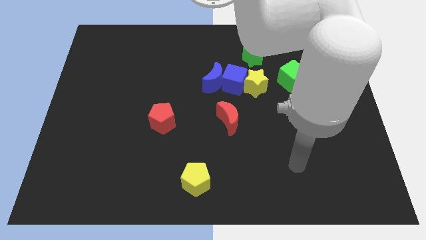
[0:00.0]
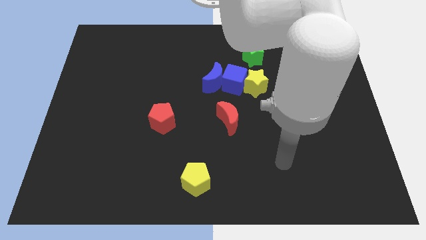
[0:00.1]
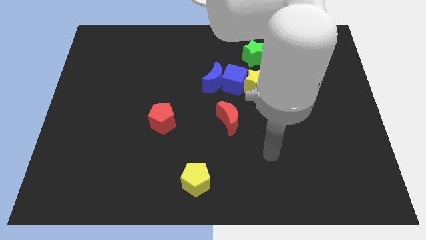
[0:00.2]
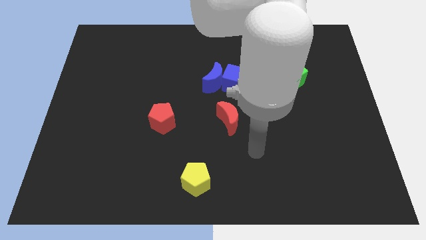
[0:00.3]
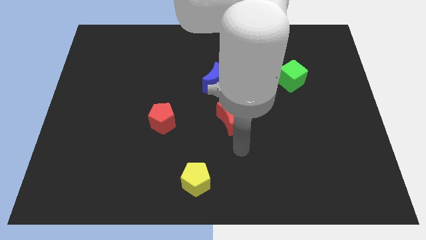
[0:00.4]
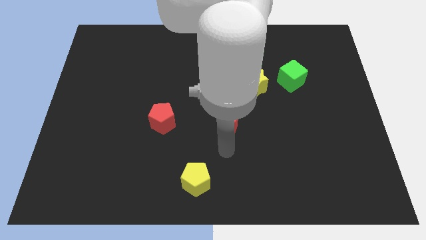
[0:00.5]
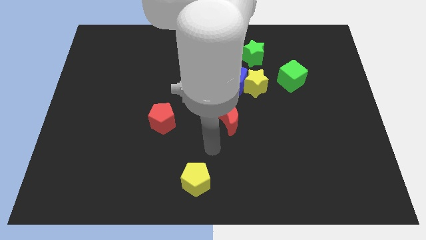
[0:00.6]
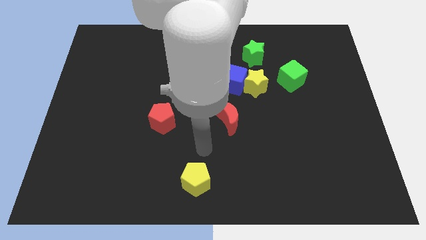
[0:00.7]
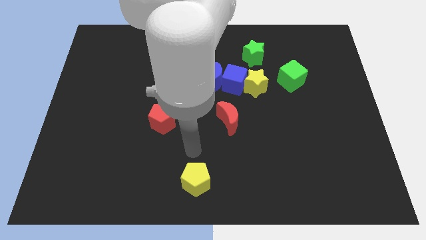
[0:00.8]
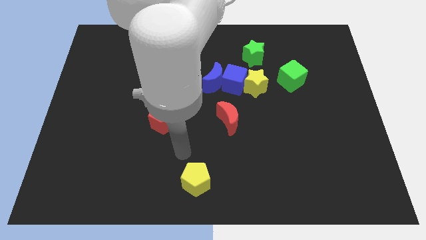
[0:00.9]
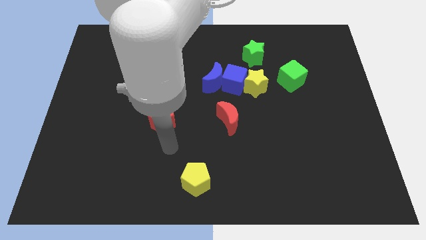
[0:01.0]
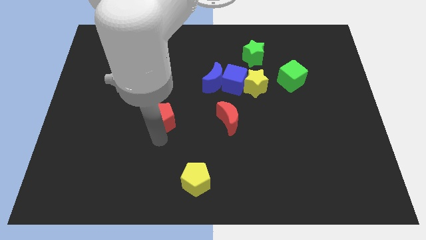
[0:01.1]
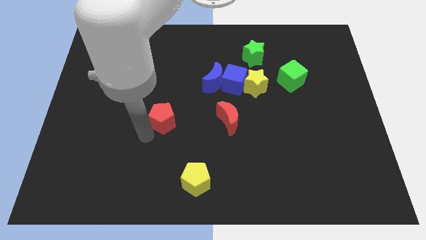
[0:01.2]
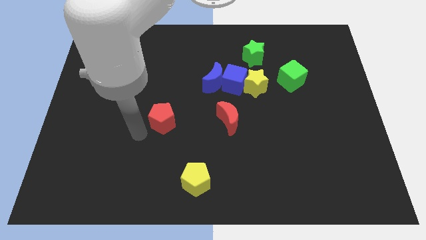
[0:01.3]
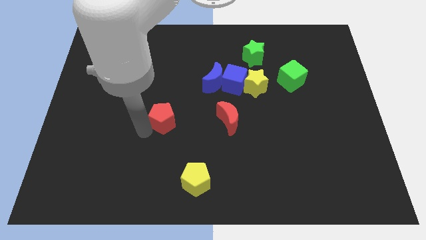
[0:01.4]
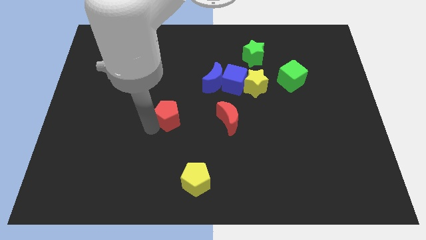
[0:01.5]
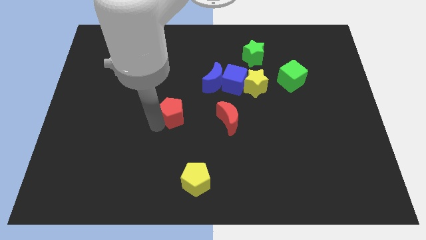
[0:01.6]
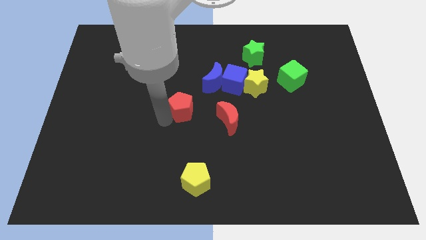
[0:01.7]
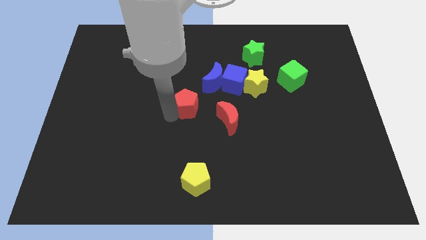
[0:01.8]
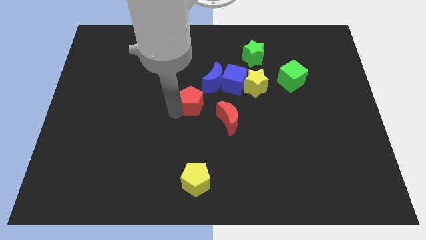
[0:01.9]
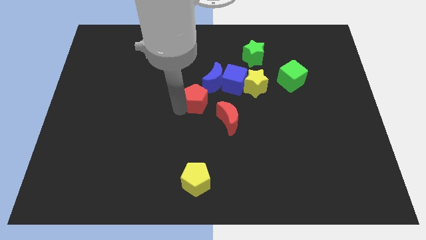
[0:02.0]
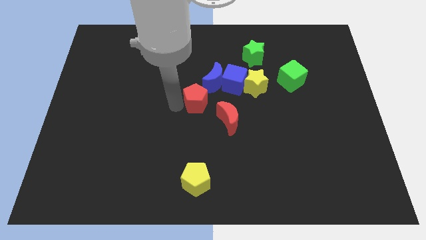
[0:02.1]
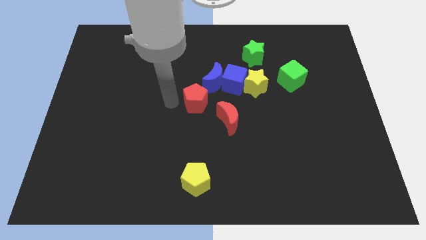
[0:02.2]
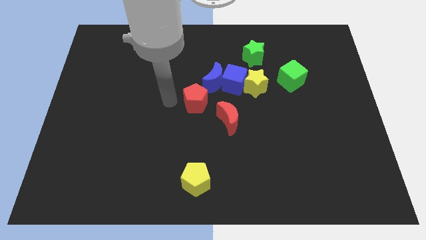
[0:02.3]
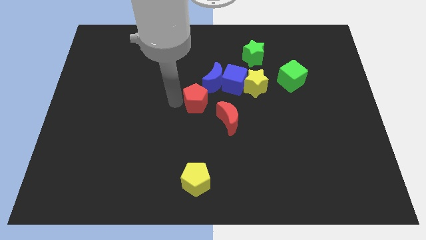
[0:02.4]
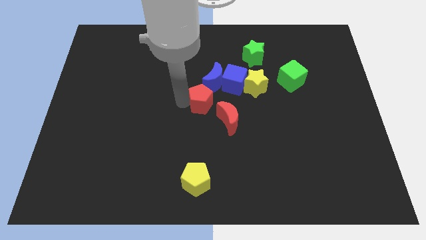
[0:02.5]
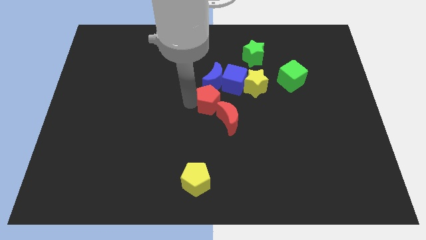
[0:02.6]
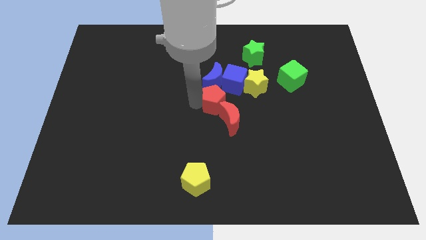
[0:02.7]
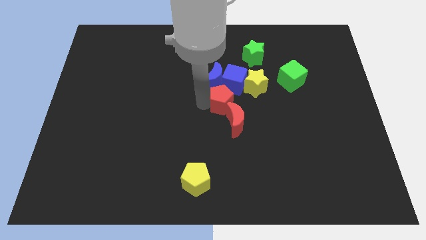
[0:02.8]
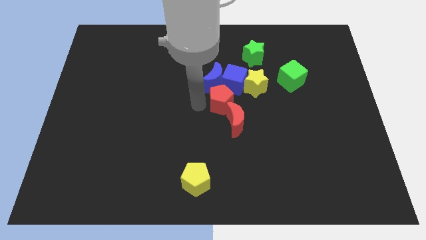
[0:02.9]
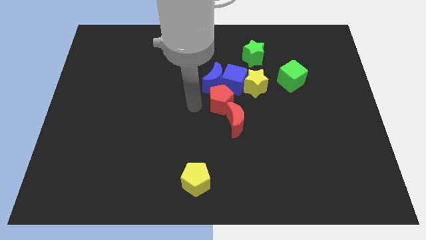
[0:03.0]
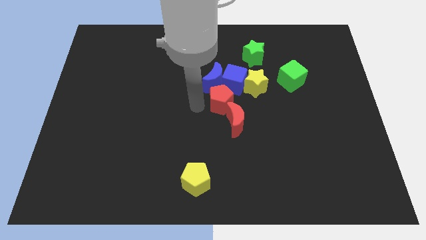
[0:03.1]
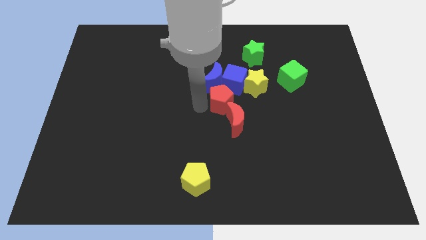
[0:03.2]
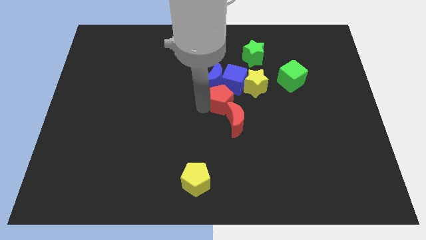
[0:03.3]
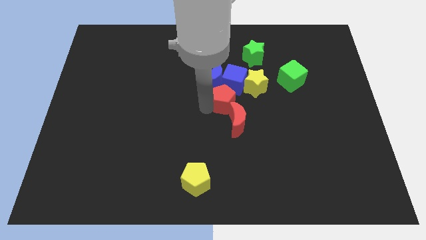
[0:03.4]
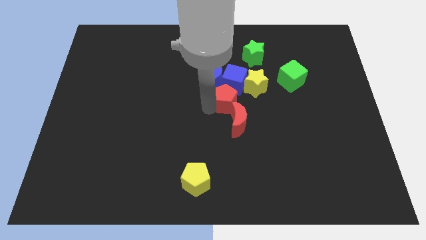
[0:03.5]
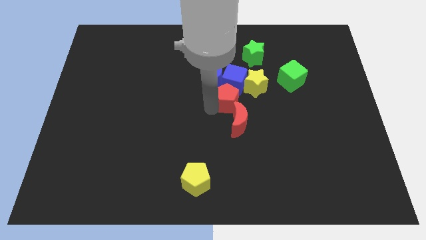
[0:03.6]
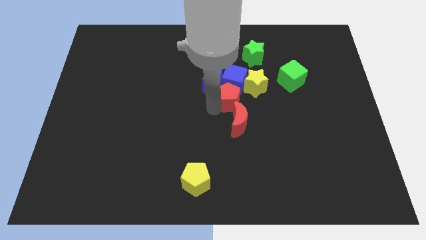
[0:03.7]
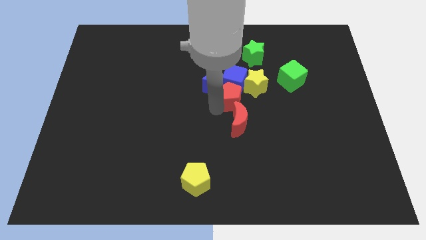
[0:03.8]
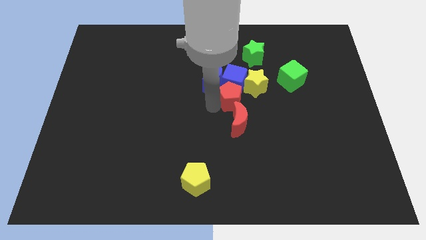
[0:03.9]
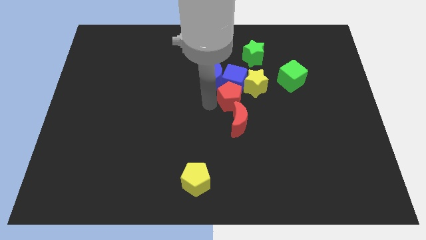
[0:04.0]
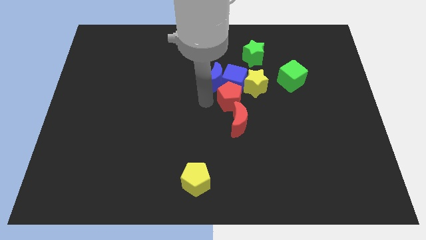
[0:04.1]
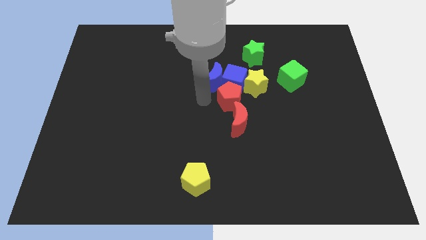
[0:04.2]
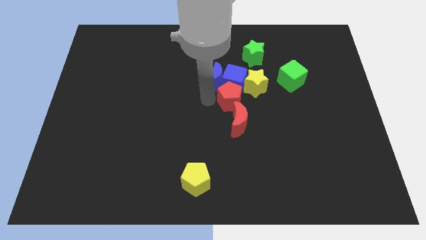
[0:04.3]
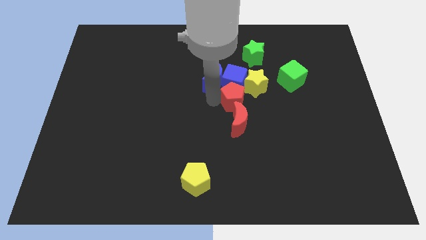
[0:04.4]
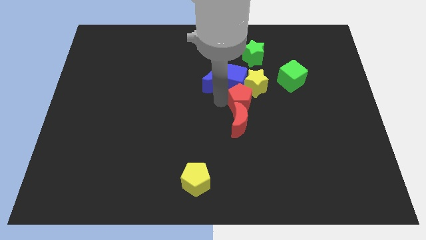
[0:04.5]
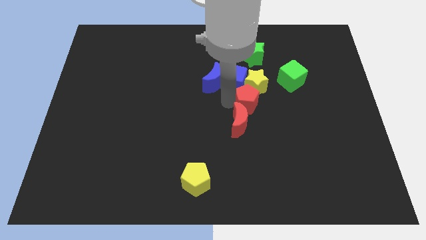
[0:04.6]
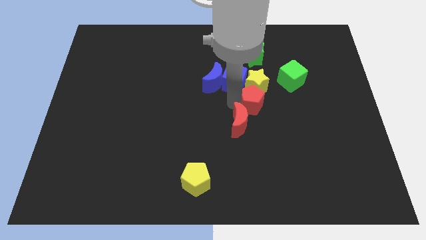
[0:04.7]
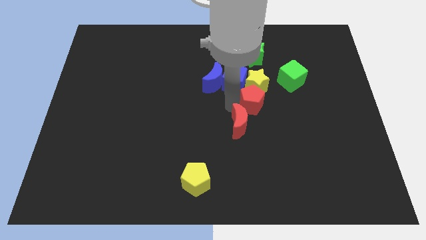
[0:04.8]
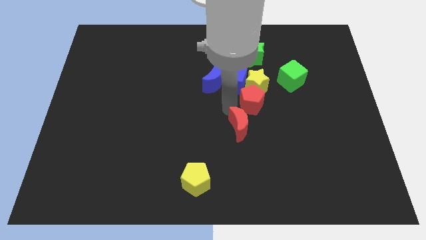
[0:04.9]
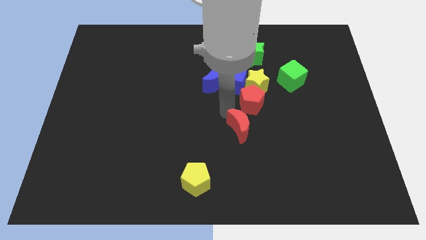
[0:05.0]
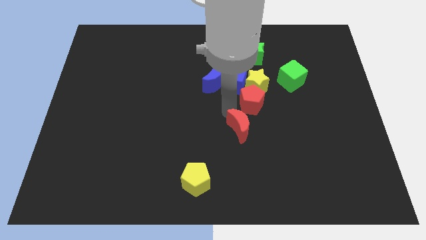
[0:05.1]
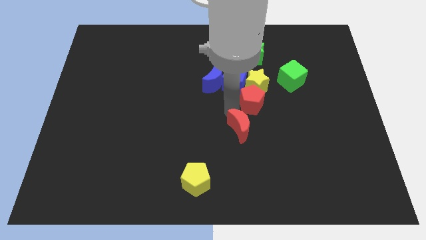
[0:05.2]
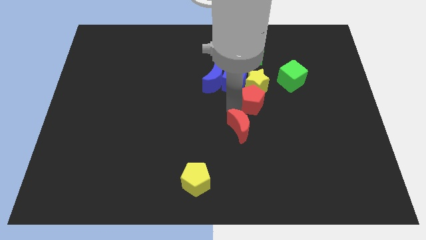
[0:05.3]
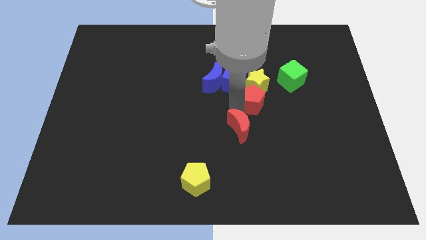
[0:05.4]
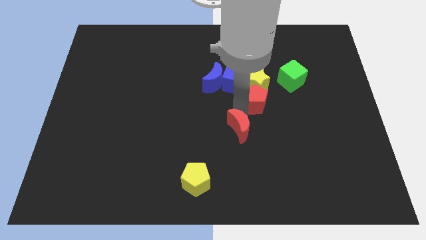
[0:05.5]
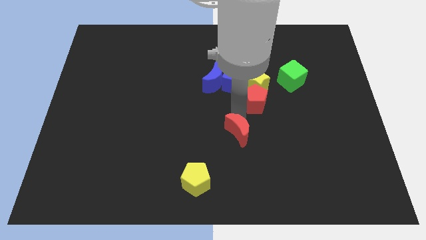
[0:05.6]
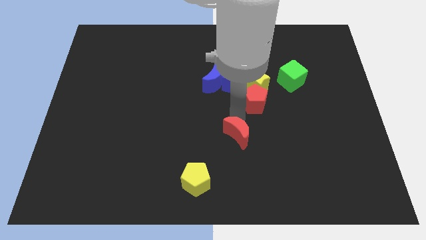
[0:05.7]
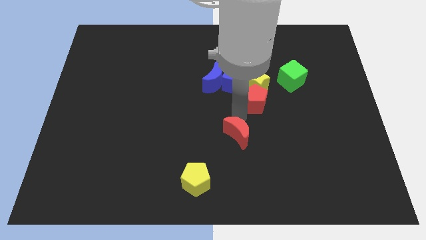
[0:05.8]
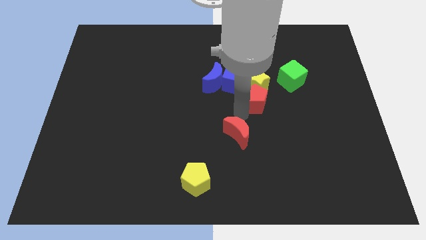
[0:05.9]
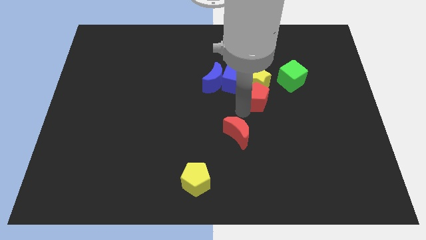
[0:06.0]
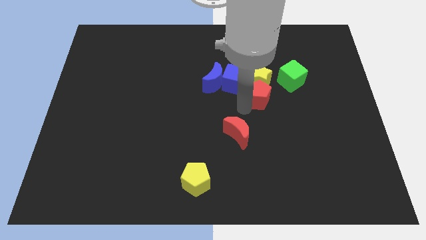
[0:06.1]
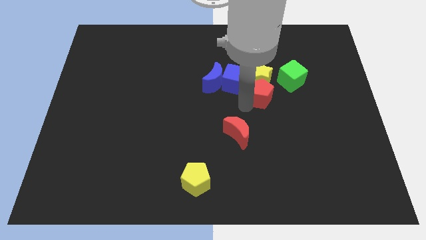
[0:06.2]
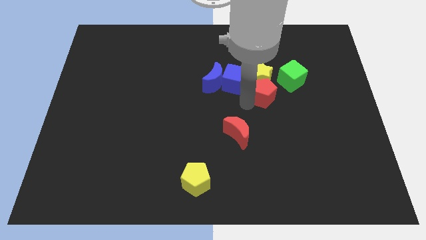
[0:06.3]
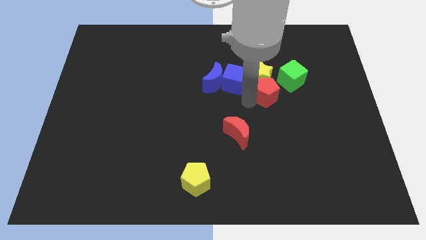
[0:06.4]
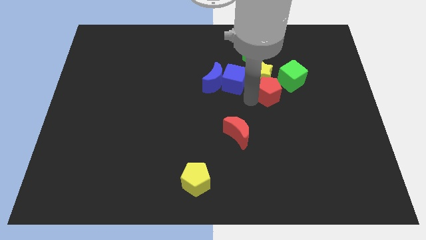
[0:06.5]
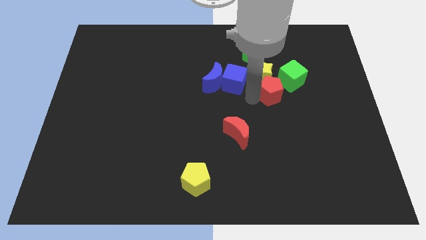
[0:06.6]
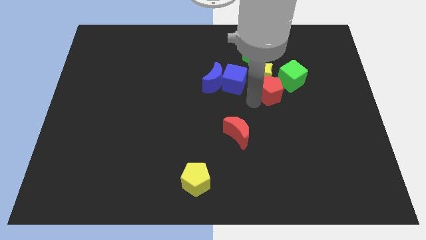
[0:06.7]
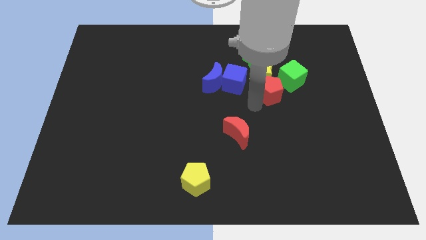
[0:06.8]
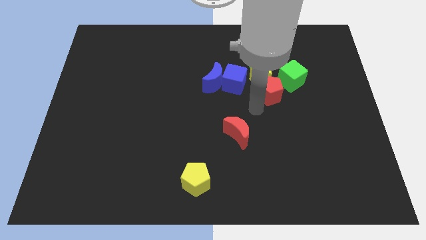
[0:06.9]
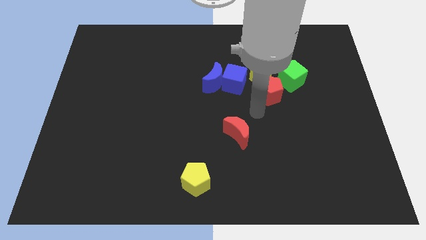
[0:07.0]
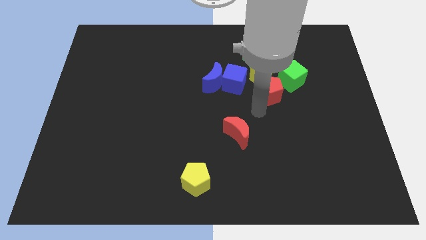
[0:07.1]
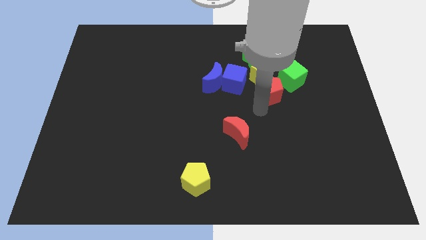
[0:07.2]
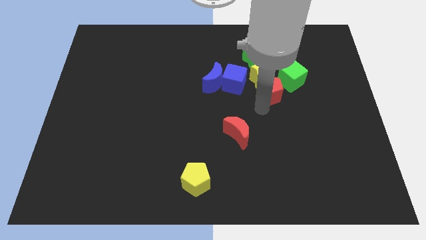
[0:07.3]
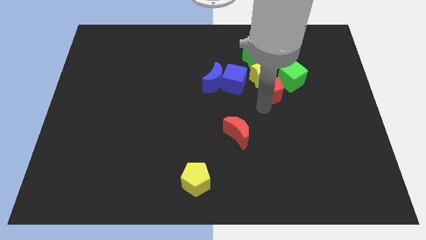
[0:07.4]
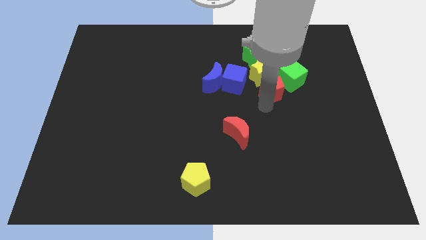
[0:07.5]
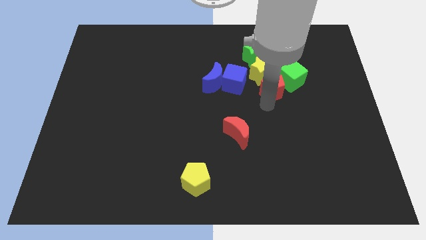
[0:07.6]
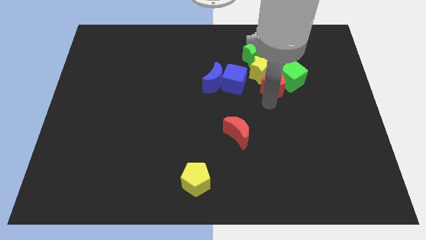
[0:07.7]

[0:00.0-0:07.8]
slide the red pentagon to the green cube
